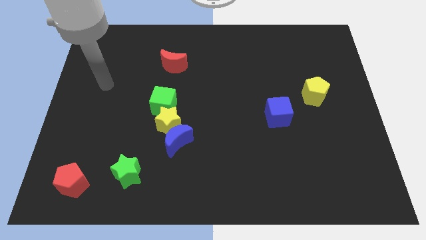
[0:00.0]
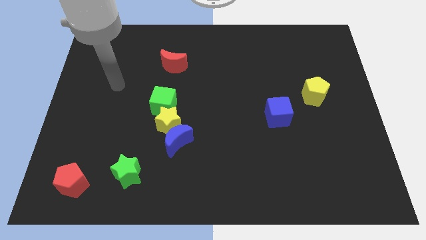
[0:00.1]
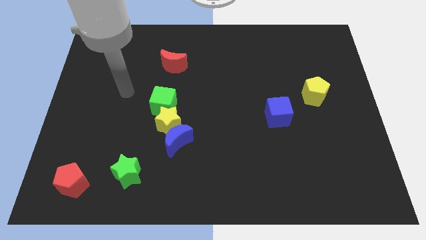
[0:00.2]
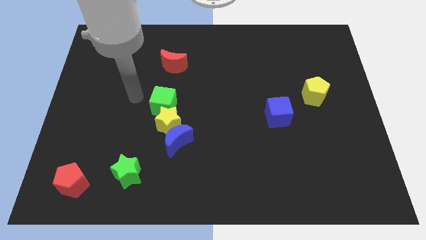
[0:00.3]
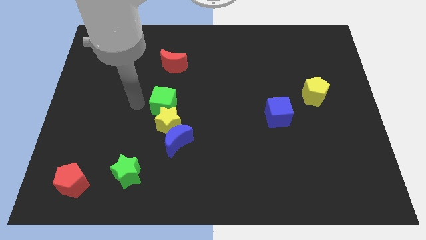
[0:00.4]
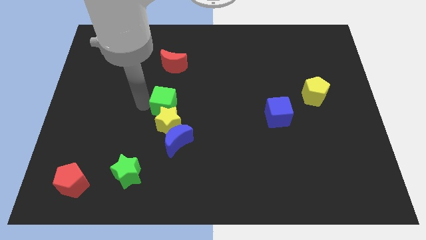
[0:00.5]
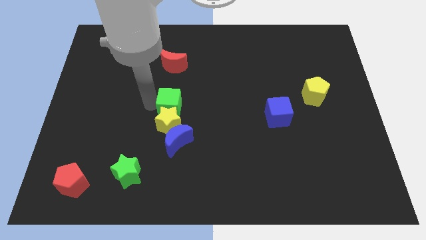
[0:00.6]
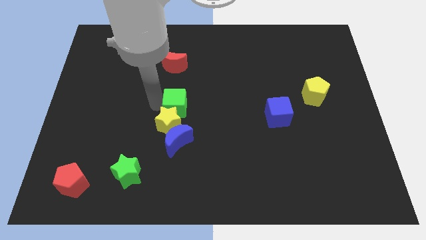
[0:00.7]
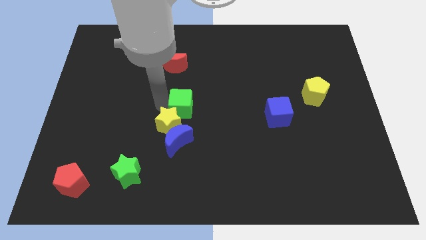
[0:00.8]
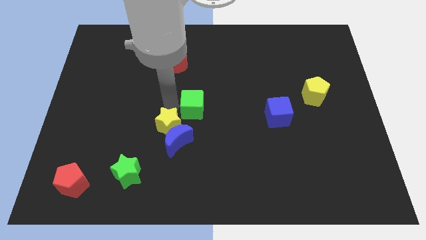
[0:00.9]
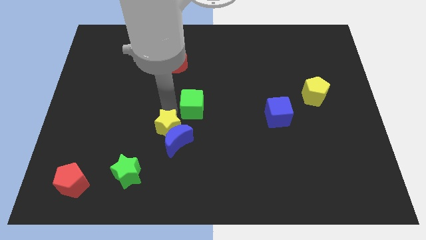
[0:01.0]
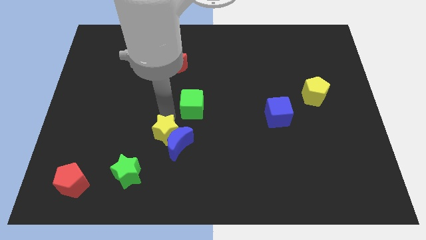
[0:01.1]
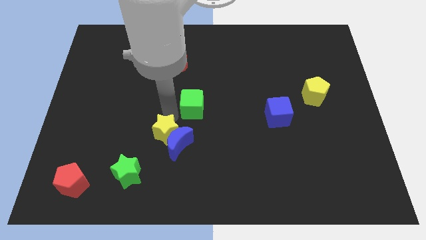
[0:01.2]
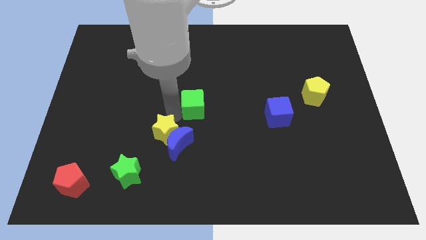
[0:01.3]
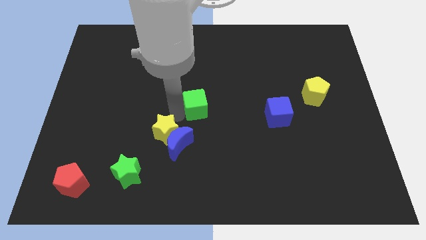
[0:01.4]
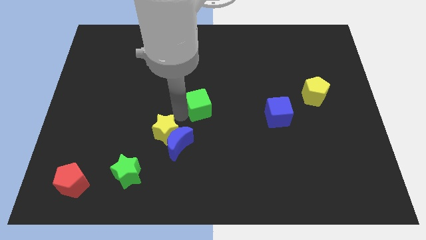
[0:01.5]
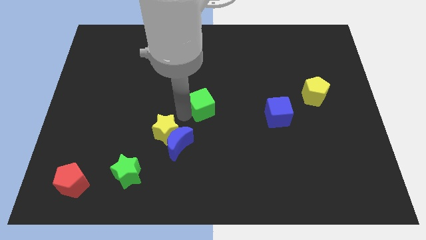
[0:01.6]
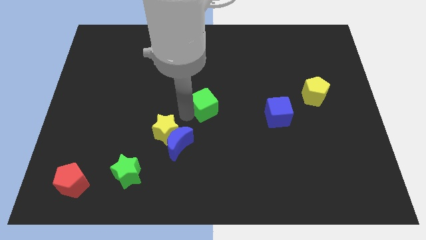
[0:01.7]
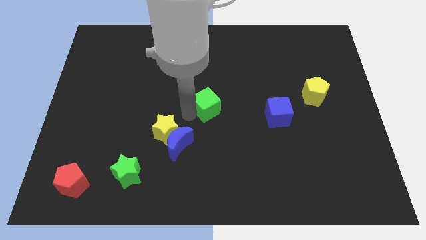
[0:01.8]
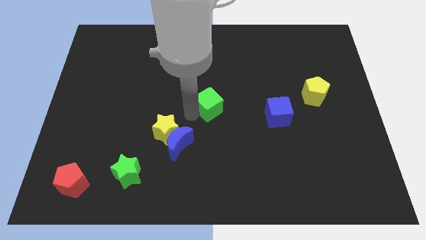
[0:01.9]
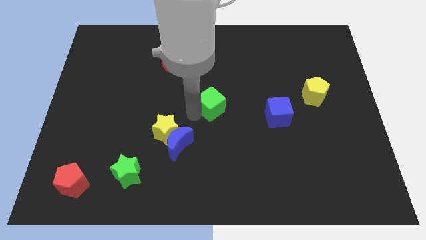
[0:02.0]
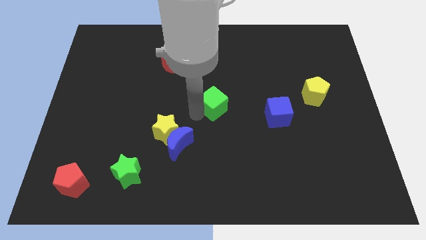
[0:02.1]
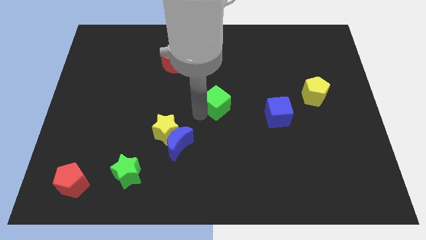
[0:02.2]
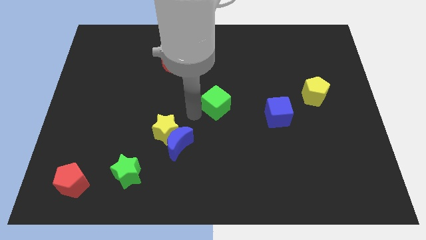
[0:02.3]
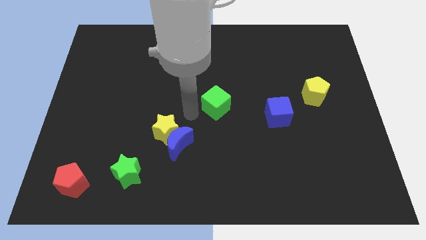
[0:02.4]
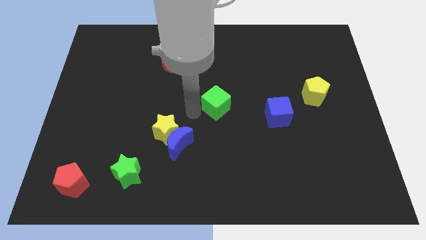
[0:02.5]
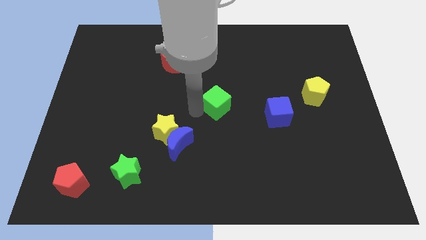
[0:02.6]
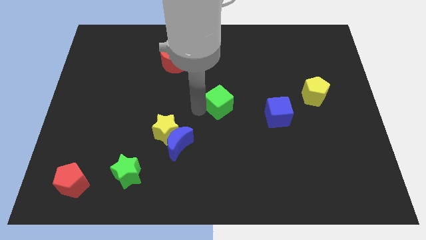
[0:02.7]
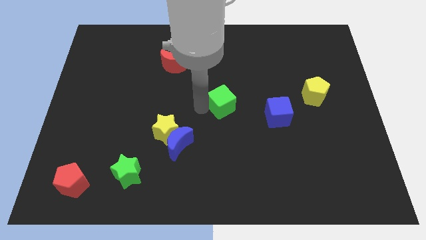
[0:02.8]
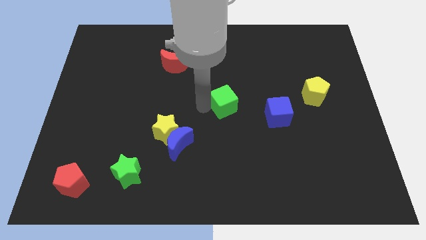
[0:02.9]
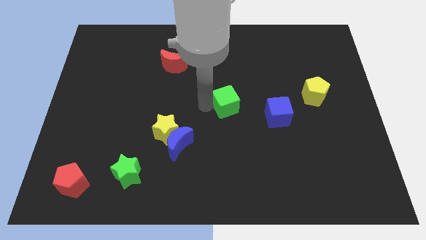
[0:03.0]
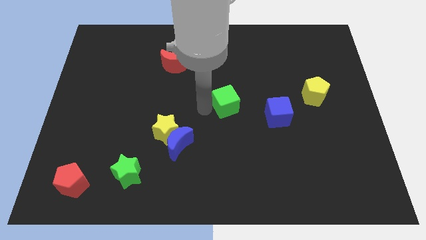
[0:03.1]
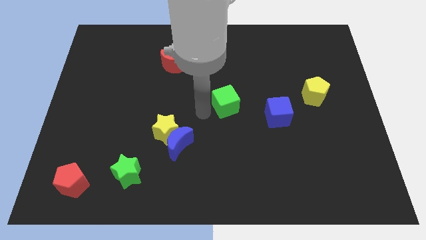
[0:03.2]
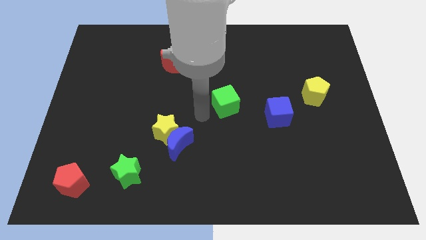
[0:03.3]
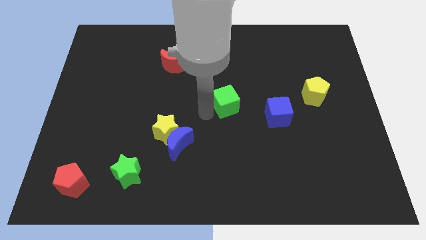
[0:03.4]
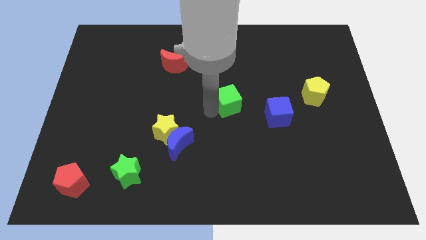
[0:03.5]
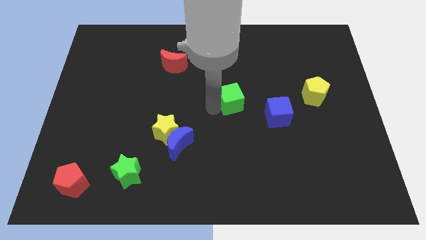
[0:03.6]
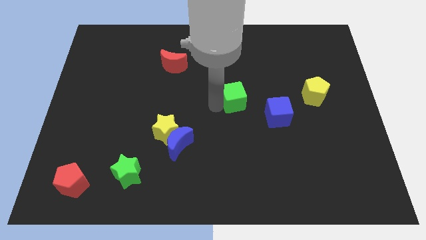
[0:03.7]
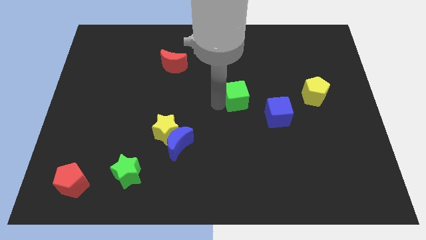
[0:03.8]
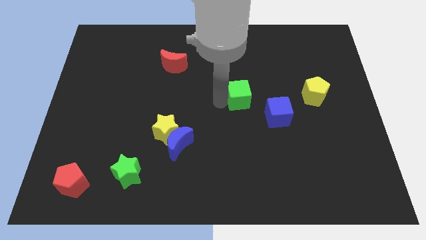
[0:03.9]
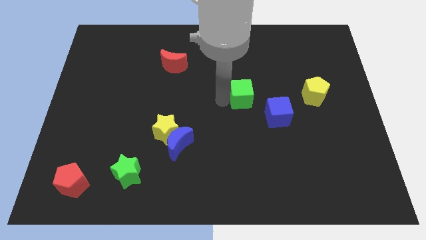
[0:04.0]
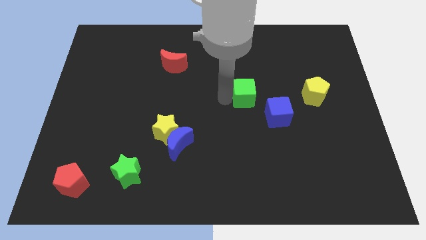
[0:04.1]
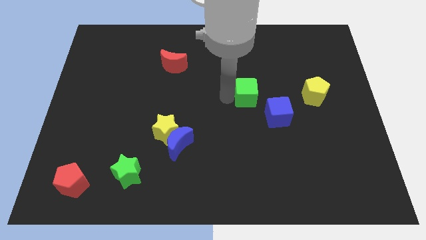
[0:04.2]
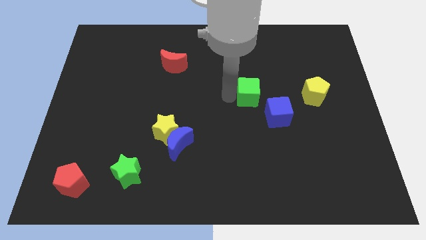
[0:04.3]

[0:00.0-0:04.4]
slide the green cube right

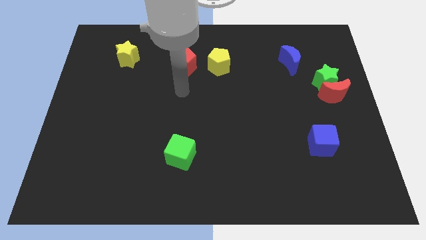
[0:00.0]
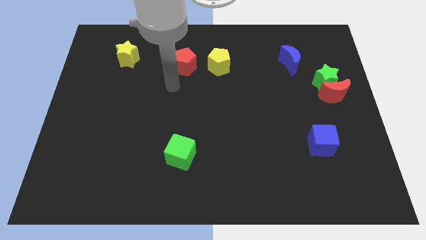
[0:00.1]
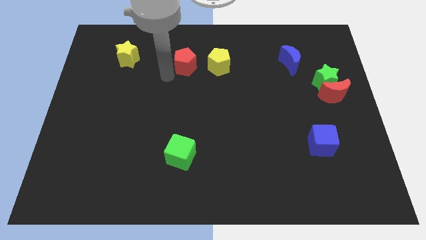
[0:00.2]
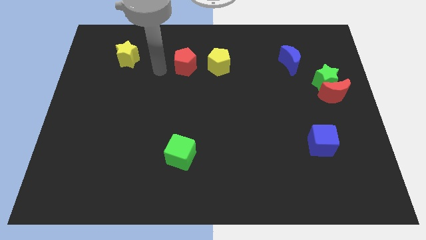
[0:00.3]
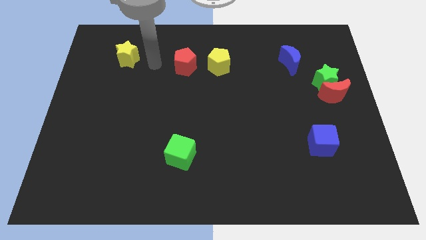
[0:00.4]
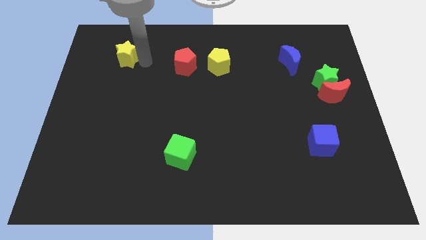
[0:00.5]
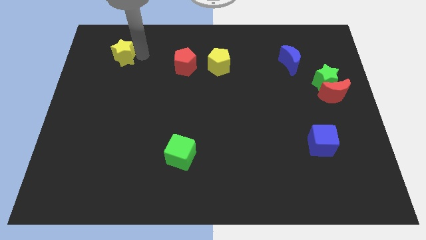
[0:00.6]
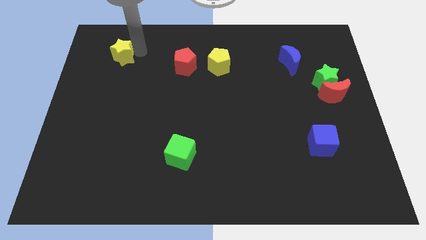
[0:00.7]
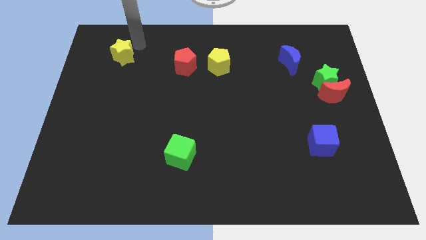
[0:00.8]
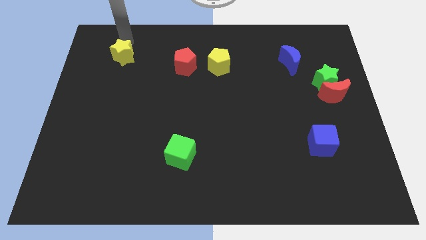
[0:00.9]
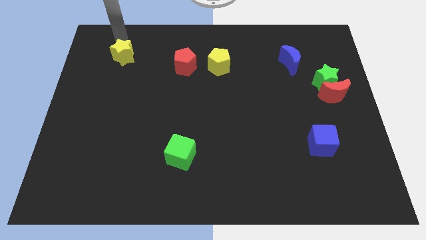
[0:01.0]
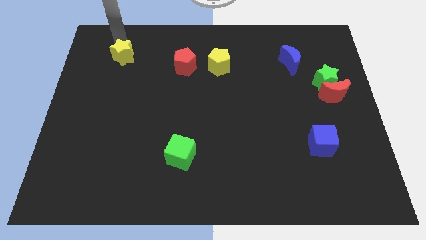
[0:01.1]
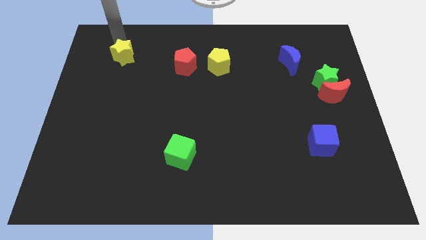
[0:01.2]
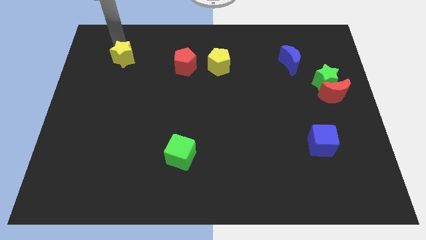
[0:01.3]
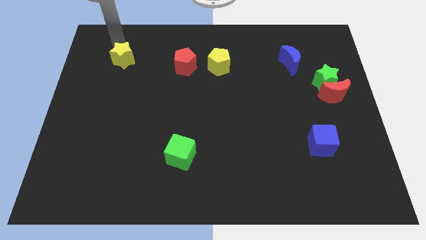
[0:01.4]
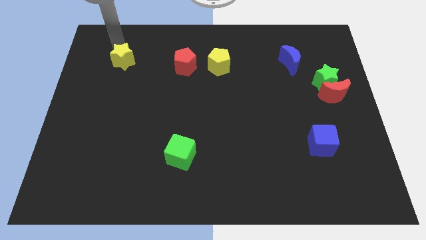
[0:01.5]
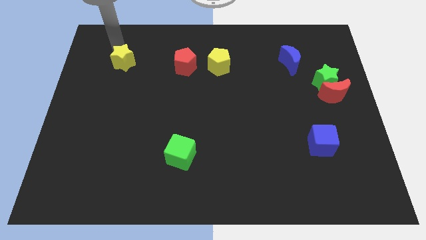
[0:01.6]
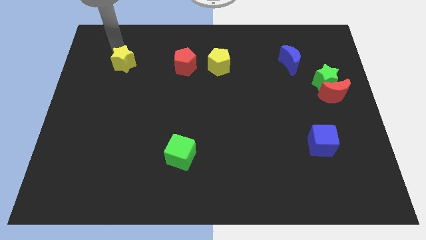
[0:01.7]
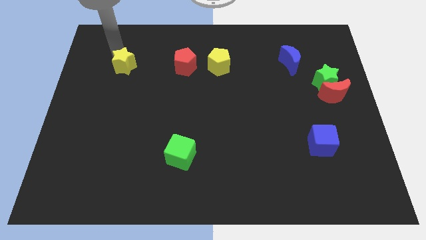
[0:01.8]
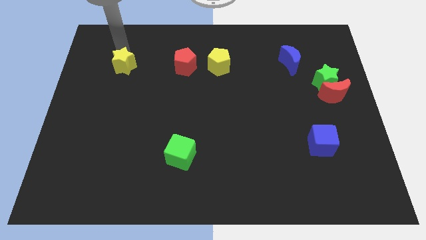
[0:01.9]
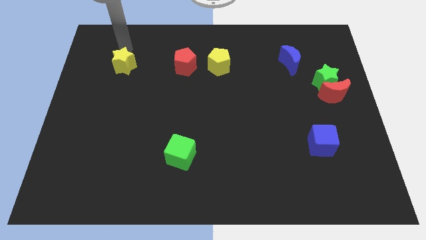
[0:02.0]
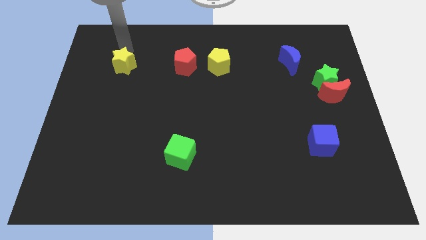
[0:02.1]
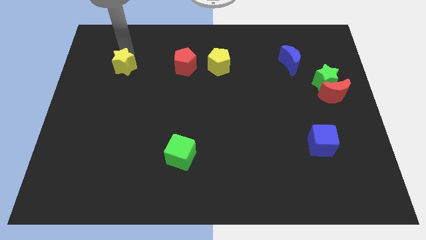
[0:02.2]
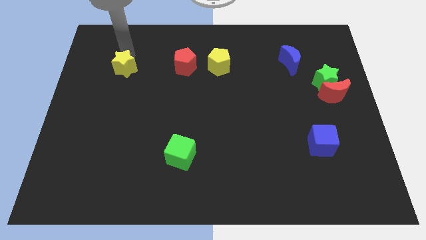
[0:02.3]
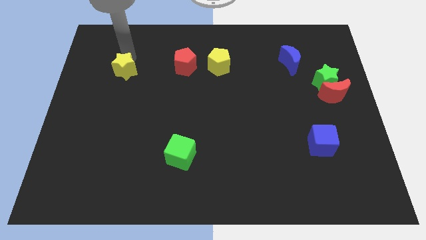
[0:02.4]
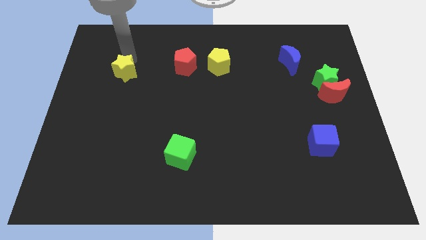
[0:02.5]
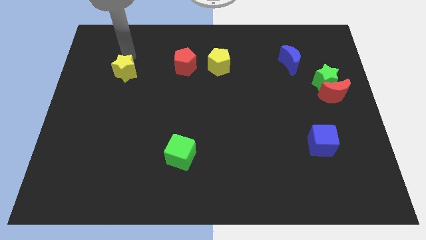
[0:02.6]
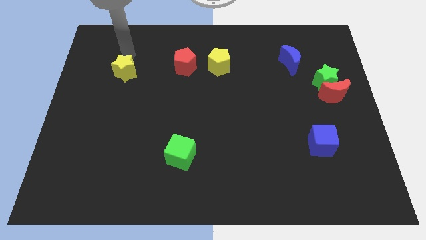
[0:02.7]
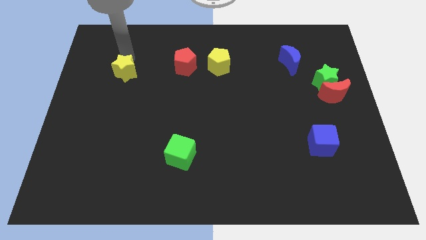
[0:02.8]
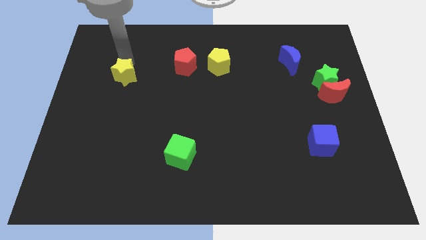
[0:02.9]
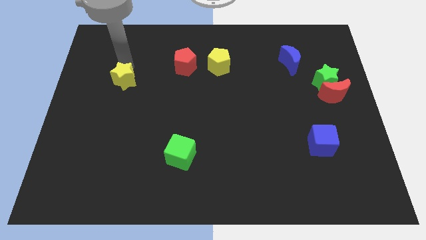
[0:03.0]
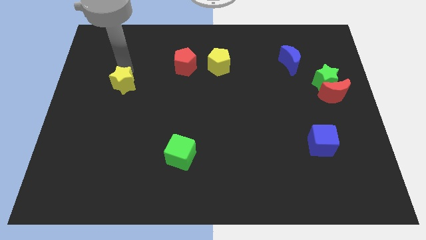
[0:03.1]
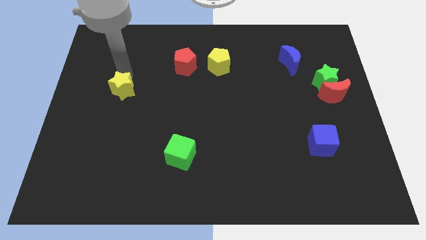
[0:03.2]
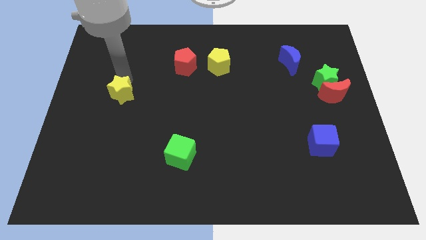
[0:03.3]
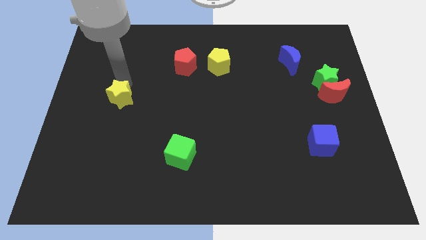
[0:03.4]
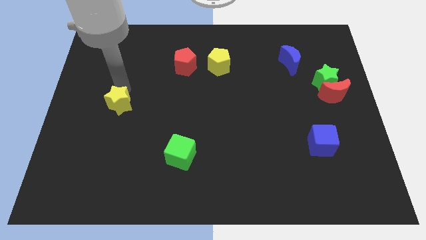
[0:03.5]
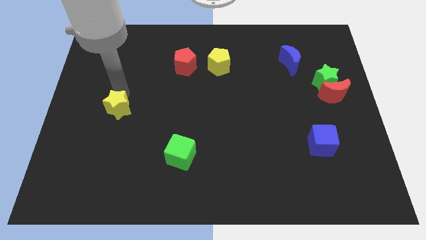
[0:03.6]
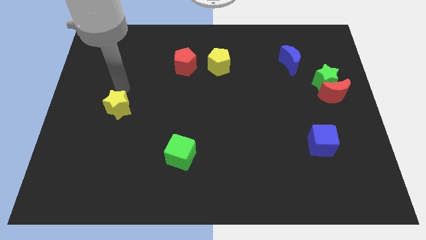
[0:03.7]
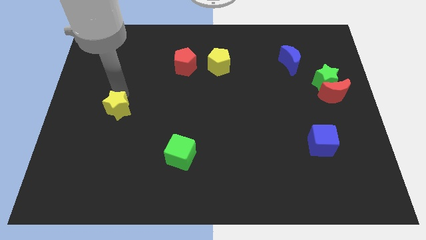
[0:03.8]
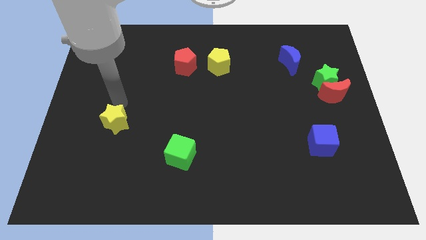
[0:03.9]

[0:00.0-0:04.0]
slide the yellow star downwards
